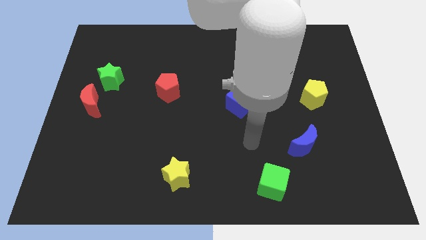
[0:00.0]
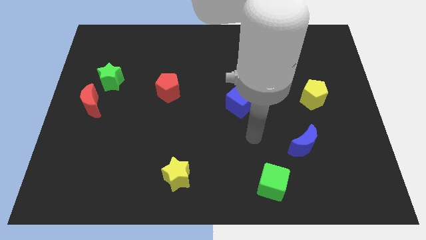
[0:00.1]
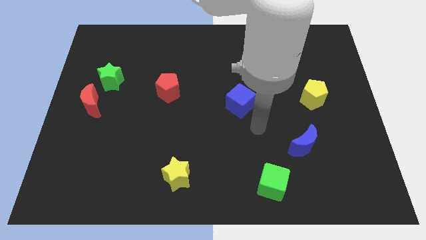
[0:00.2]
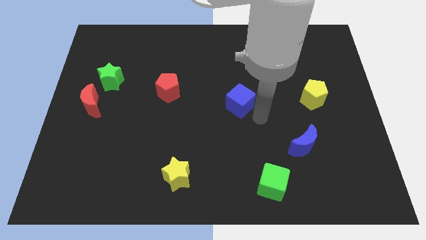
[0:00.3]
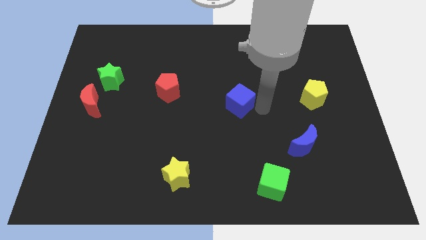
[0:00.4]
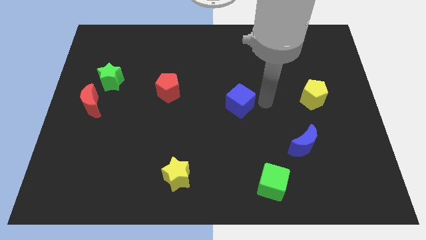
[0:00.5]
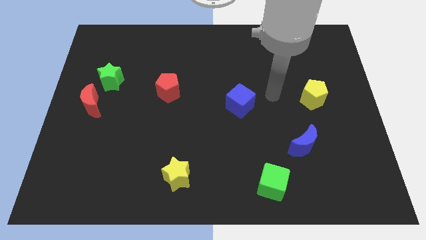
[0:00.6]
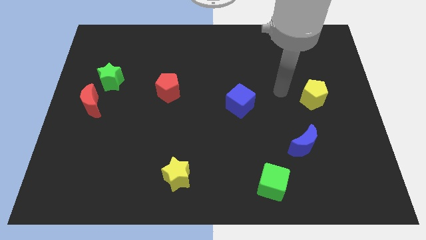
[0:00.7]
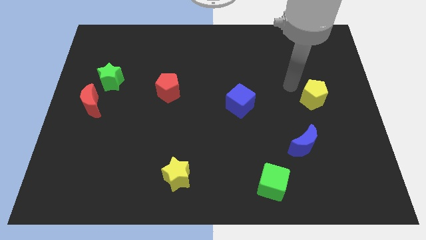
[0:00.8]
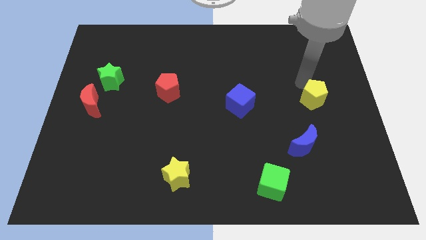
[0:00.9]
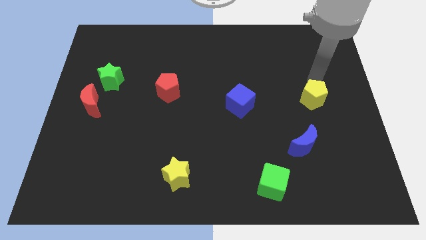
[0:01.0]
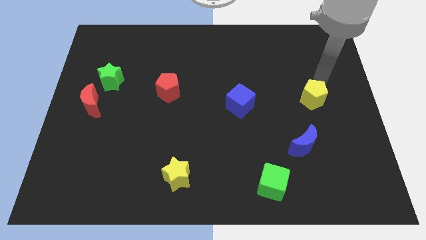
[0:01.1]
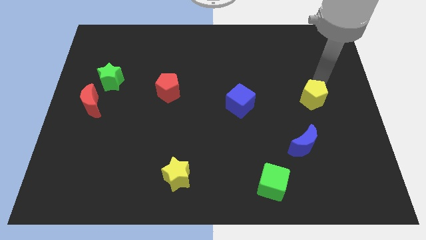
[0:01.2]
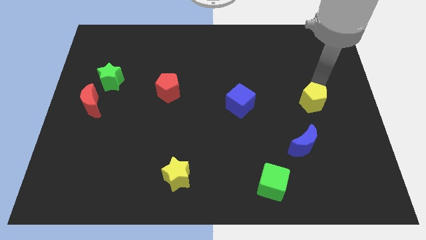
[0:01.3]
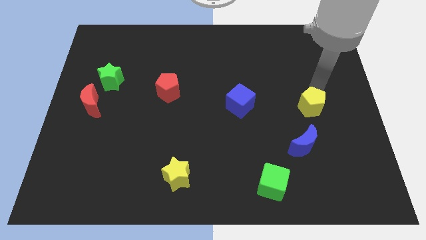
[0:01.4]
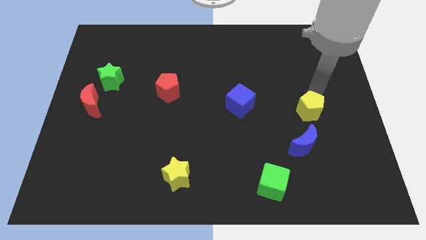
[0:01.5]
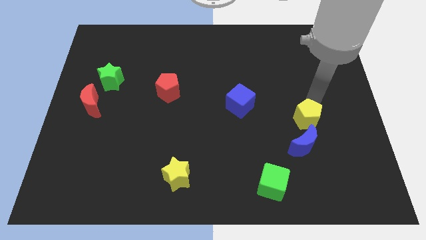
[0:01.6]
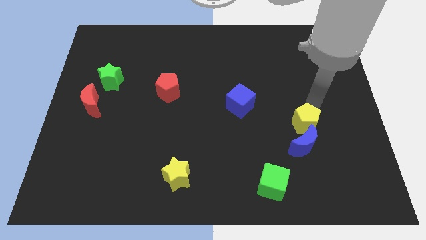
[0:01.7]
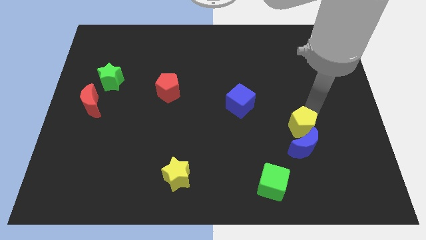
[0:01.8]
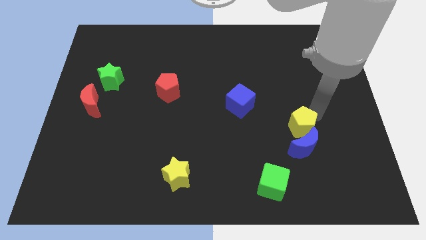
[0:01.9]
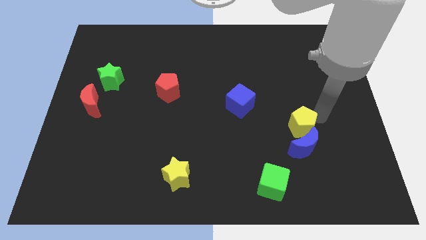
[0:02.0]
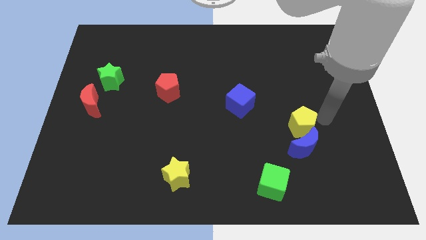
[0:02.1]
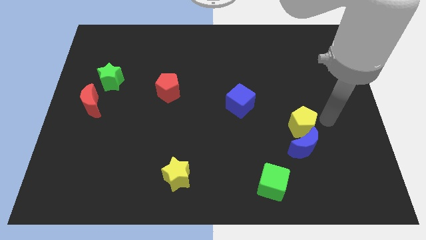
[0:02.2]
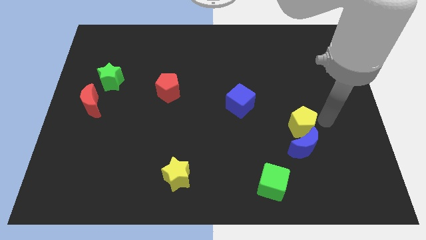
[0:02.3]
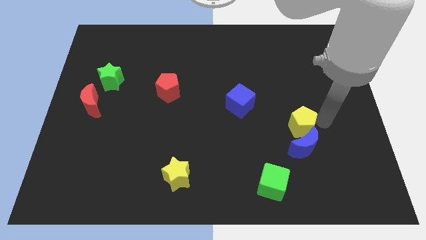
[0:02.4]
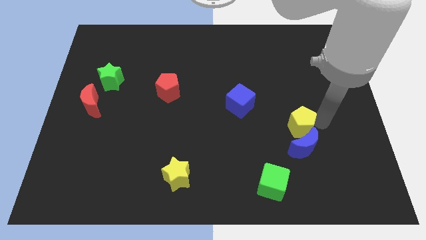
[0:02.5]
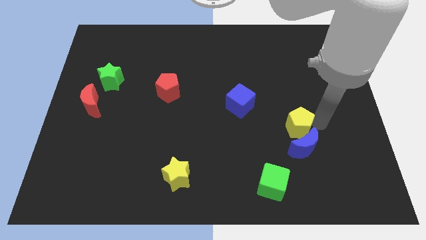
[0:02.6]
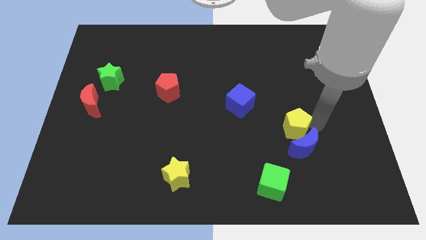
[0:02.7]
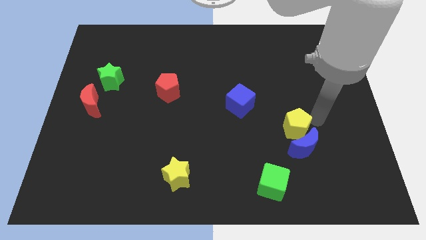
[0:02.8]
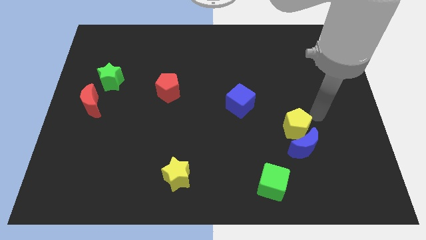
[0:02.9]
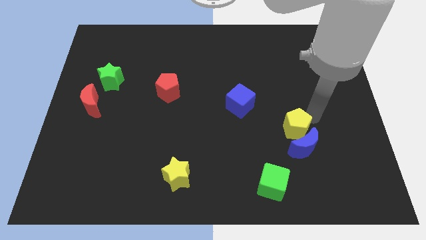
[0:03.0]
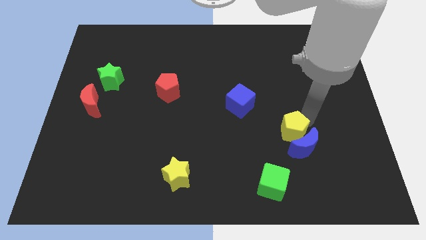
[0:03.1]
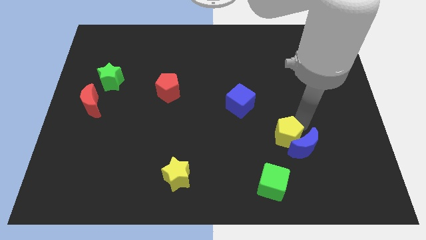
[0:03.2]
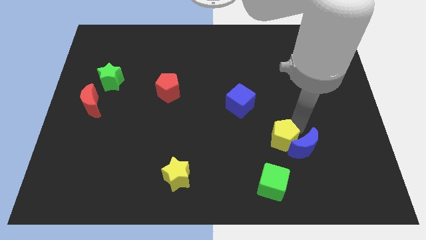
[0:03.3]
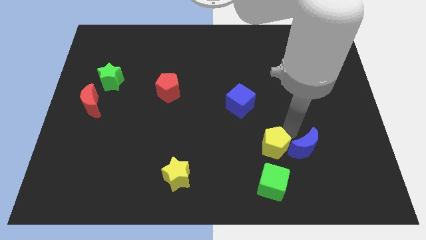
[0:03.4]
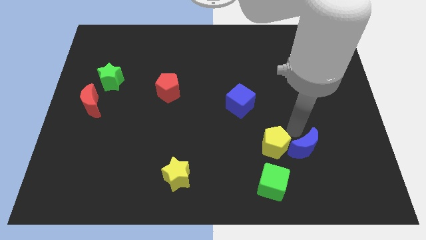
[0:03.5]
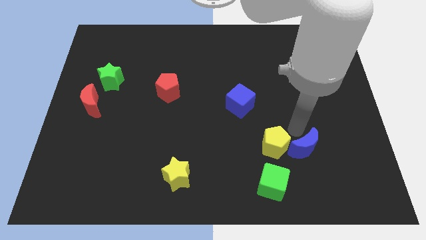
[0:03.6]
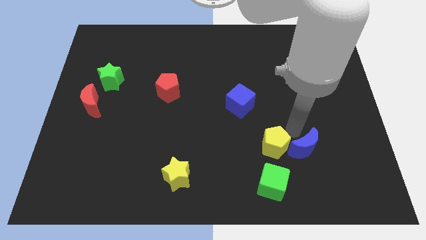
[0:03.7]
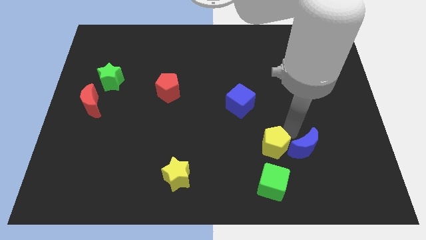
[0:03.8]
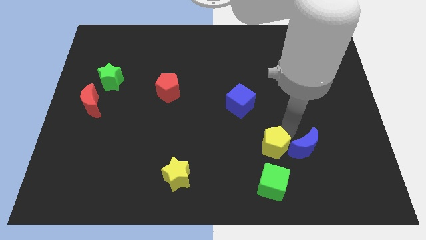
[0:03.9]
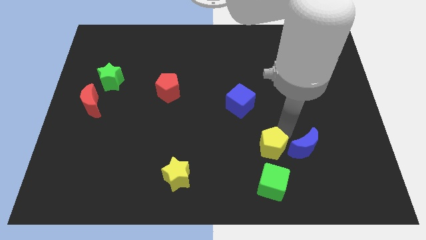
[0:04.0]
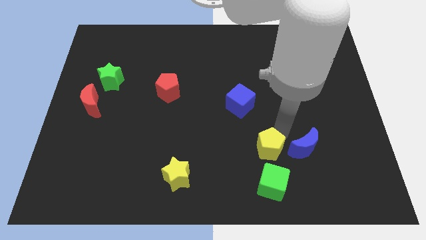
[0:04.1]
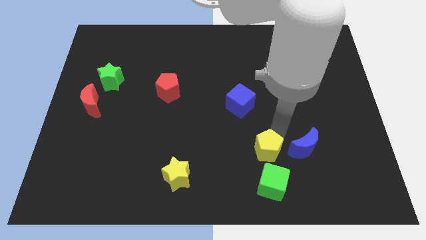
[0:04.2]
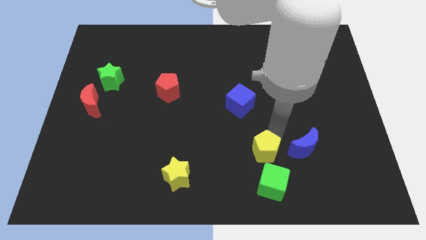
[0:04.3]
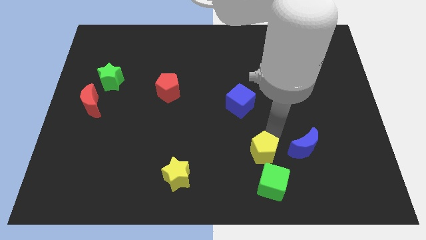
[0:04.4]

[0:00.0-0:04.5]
slide the yellow pentagon downwards and then left

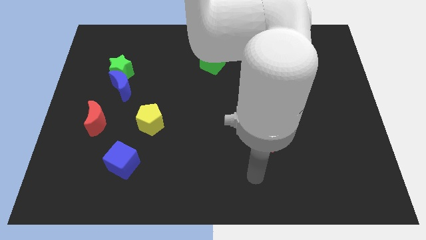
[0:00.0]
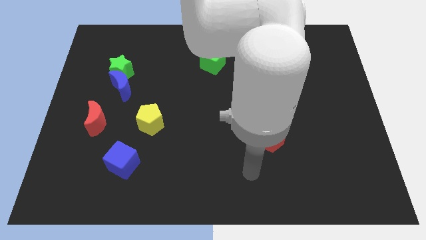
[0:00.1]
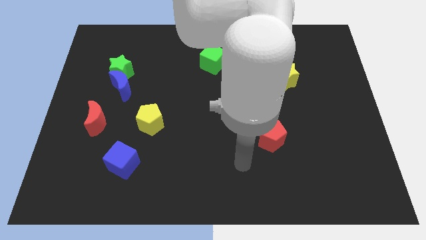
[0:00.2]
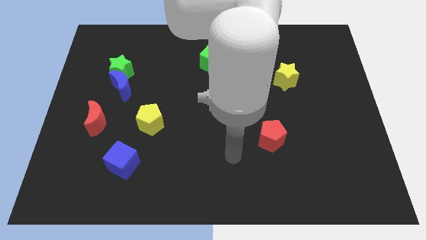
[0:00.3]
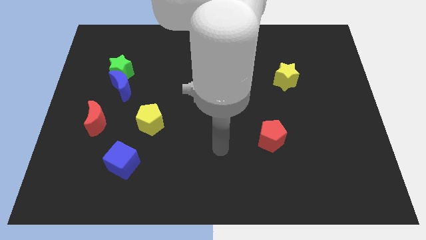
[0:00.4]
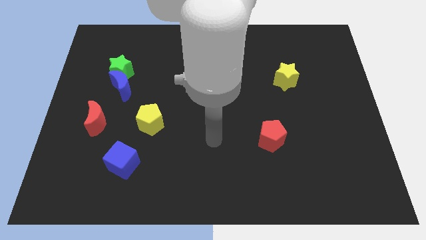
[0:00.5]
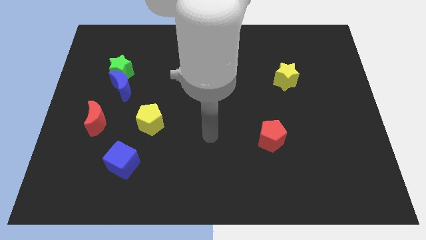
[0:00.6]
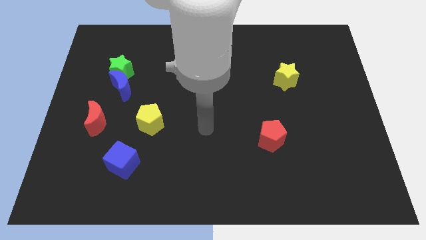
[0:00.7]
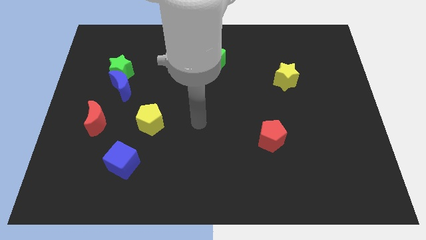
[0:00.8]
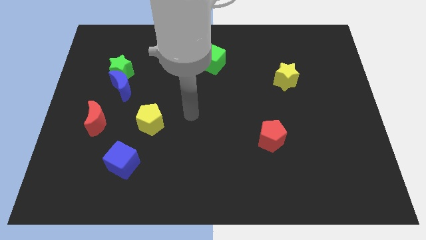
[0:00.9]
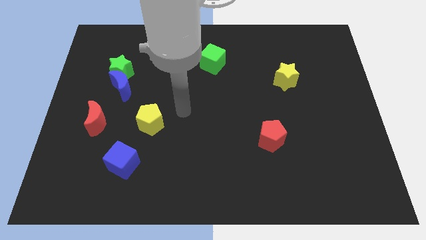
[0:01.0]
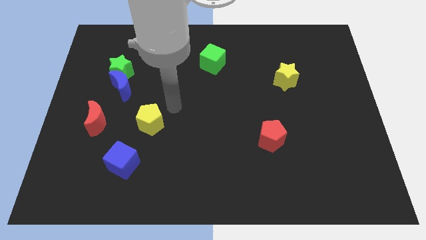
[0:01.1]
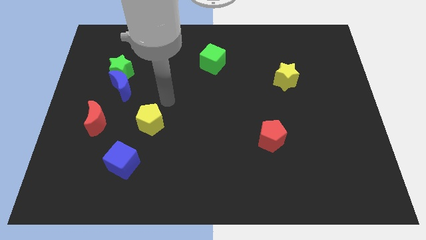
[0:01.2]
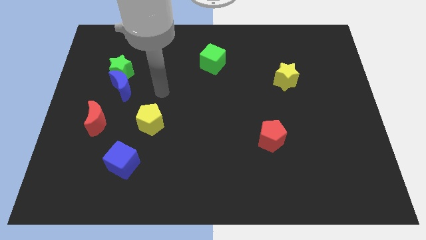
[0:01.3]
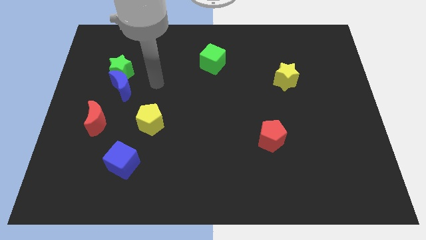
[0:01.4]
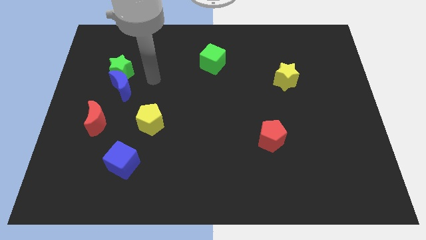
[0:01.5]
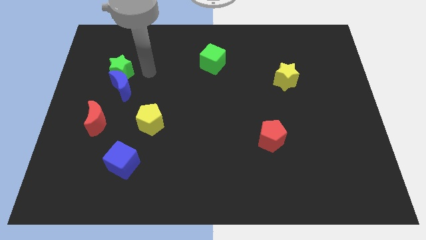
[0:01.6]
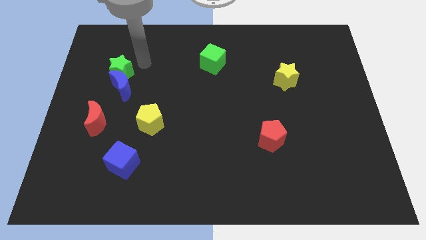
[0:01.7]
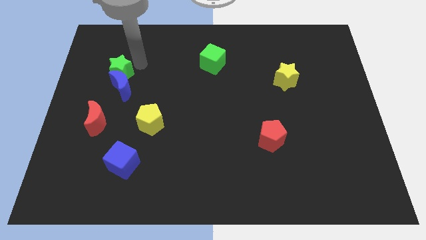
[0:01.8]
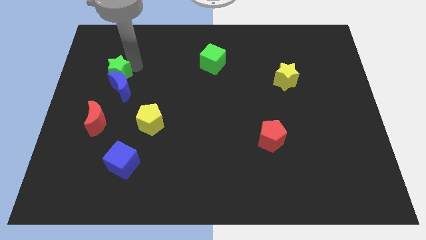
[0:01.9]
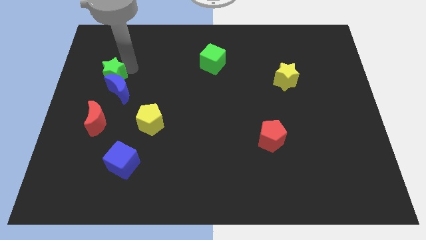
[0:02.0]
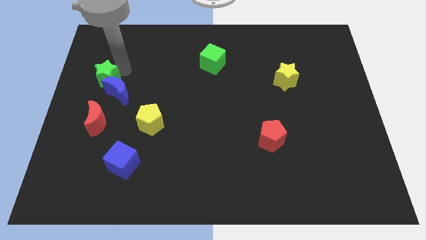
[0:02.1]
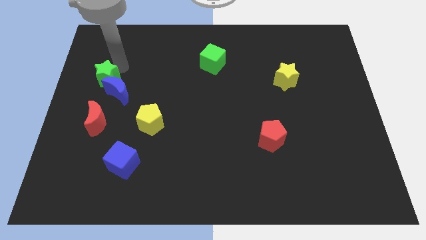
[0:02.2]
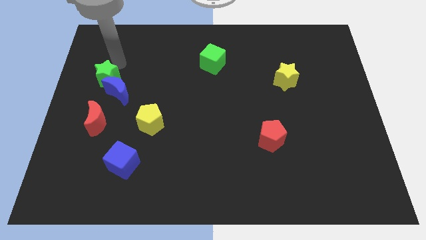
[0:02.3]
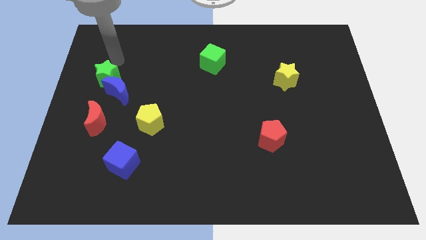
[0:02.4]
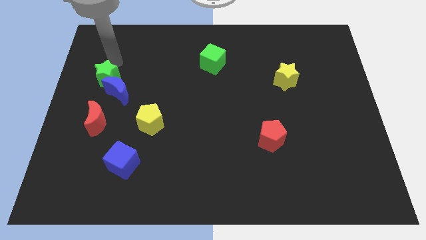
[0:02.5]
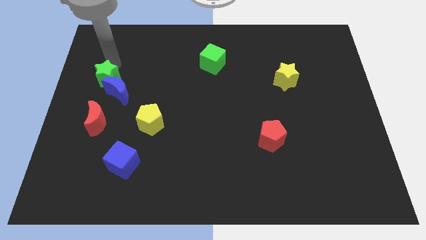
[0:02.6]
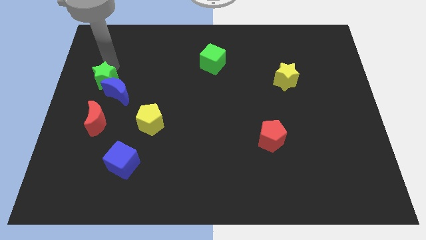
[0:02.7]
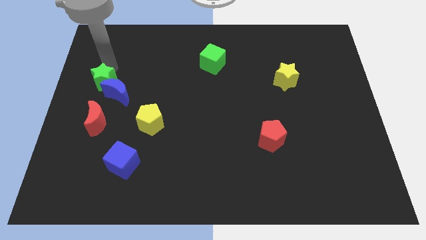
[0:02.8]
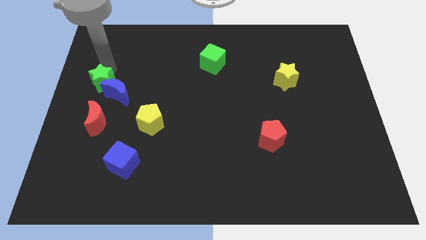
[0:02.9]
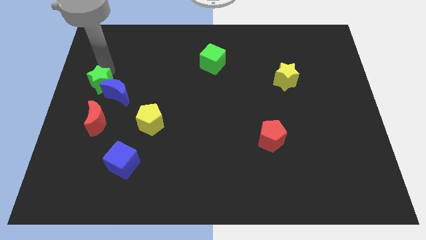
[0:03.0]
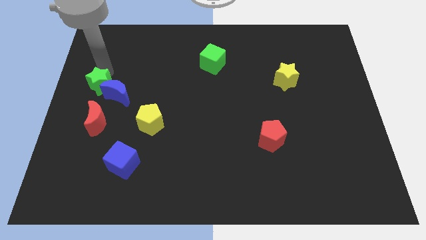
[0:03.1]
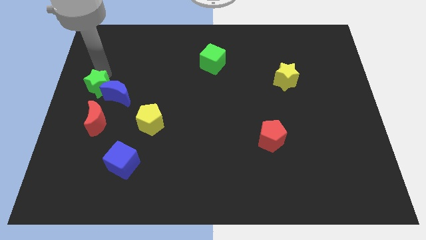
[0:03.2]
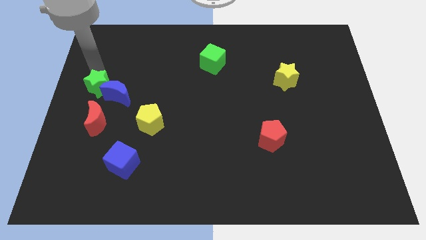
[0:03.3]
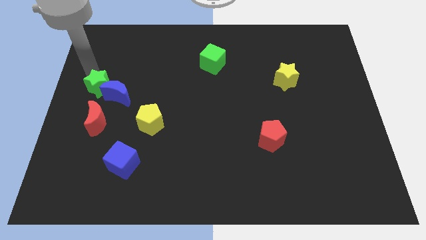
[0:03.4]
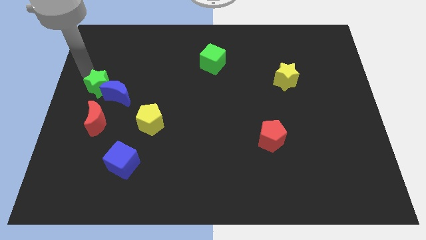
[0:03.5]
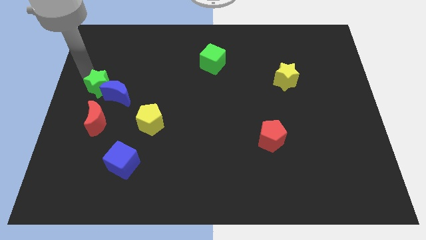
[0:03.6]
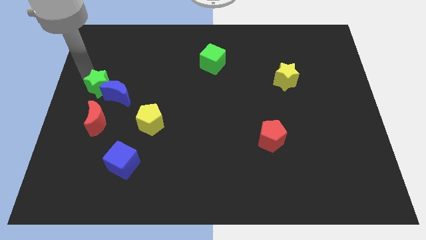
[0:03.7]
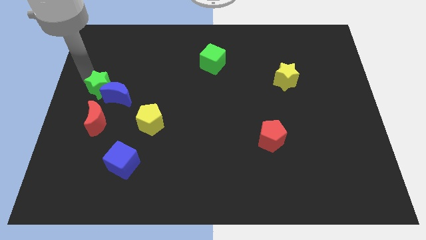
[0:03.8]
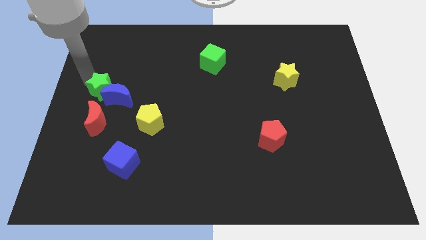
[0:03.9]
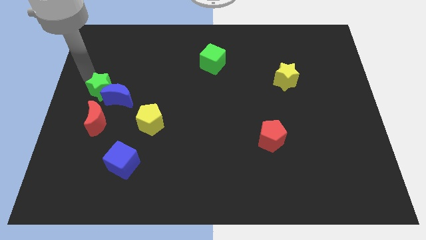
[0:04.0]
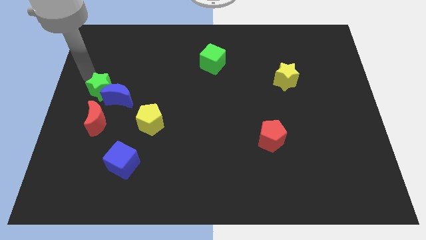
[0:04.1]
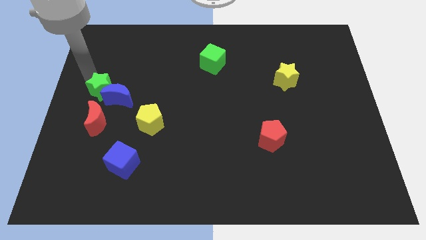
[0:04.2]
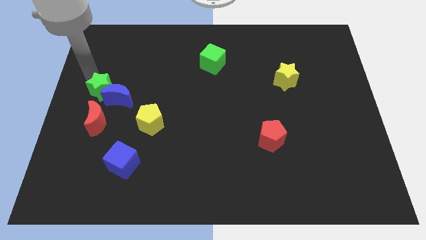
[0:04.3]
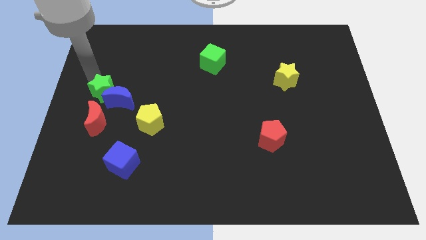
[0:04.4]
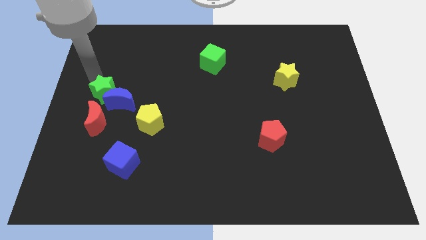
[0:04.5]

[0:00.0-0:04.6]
slightly move the green star downwards
